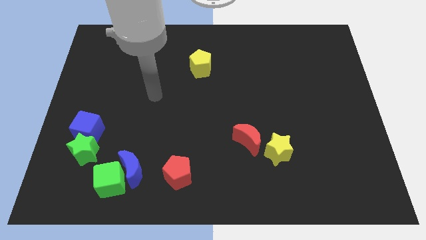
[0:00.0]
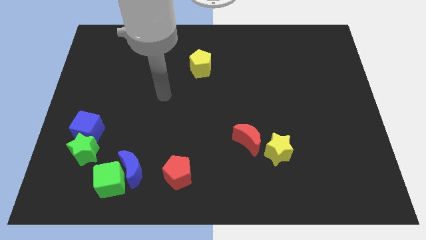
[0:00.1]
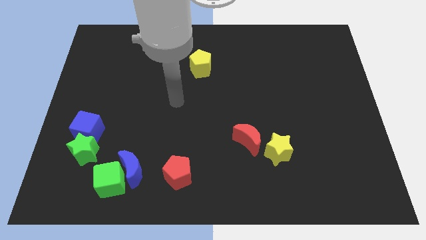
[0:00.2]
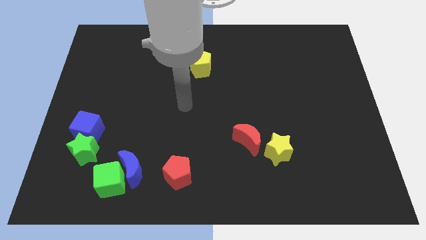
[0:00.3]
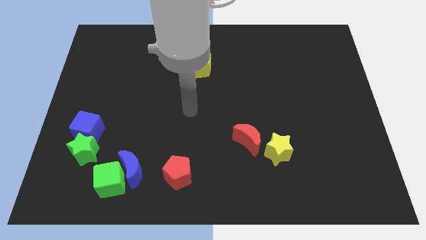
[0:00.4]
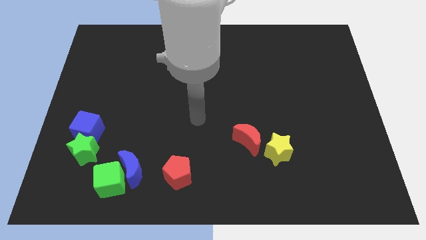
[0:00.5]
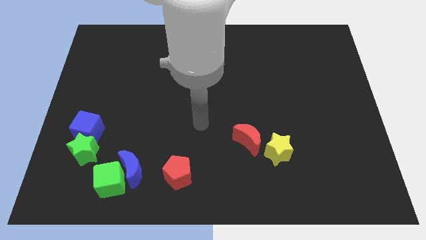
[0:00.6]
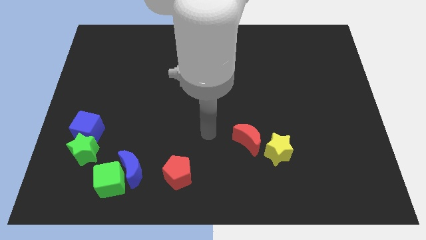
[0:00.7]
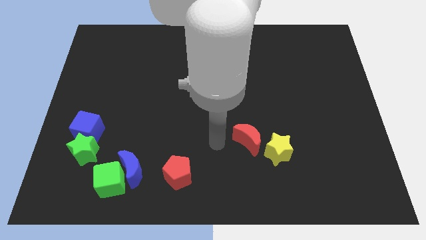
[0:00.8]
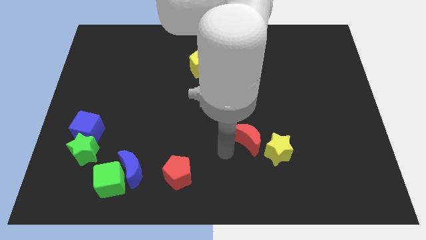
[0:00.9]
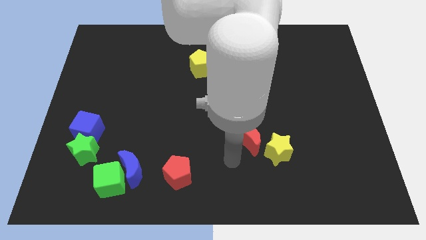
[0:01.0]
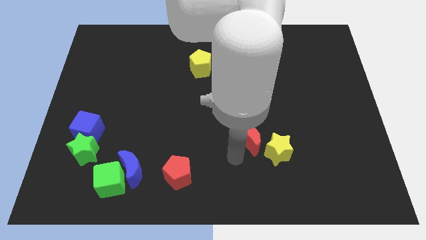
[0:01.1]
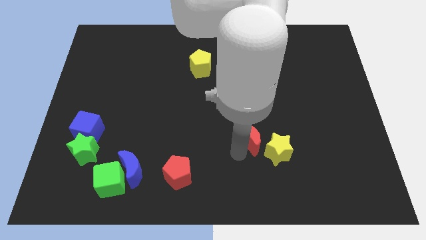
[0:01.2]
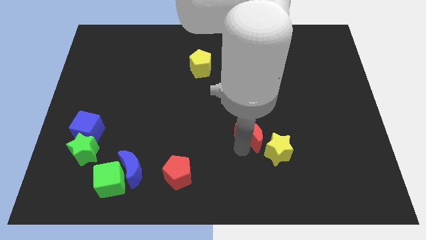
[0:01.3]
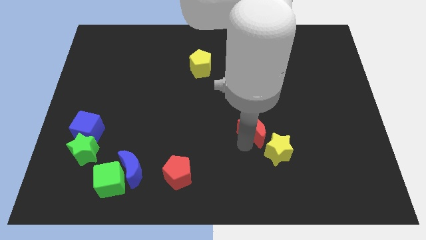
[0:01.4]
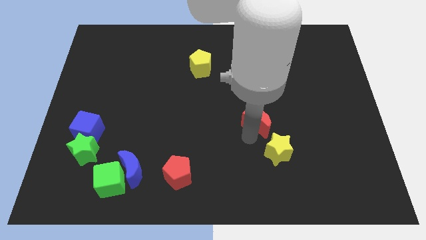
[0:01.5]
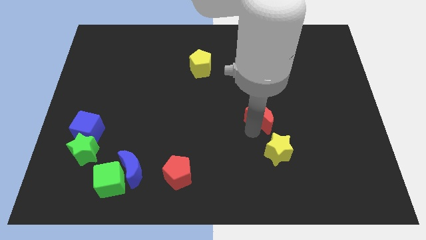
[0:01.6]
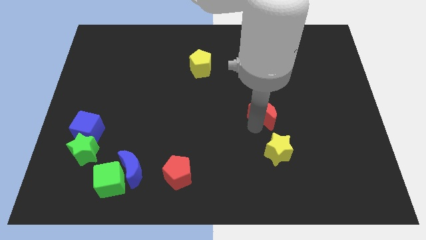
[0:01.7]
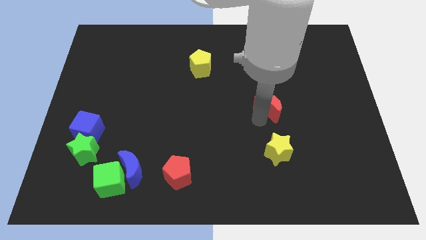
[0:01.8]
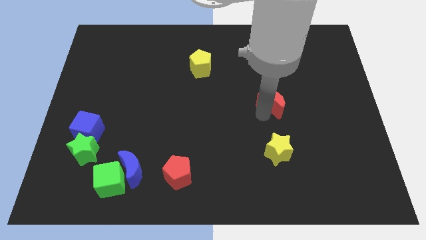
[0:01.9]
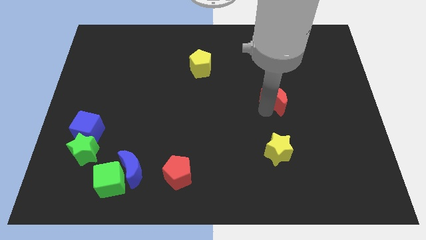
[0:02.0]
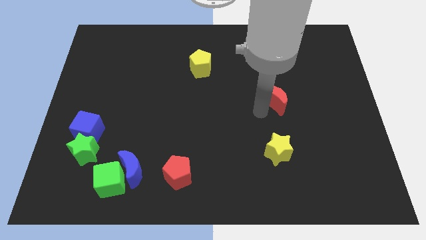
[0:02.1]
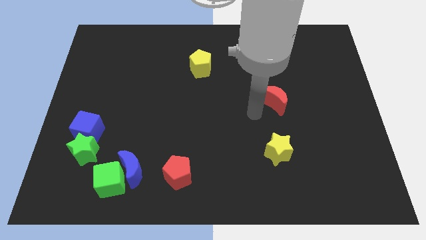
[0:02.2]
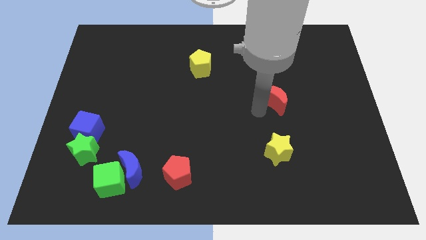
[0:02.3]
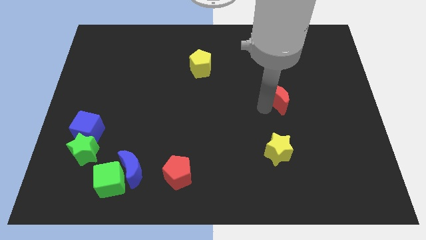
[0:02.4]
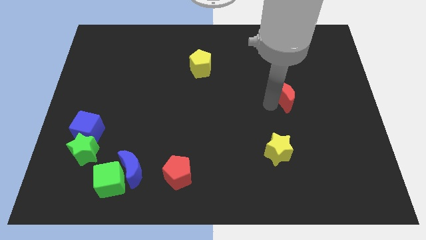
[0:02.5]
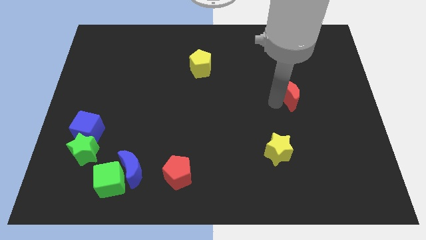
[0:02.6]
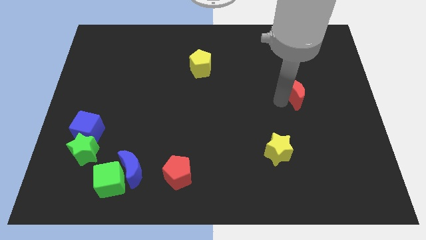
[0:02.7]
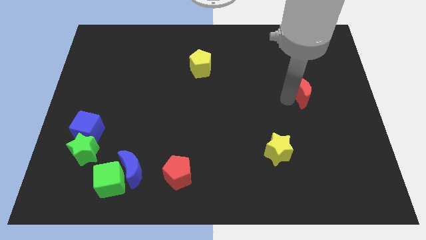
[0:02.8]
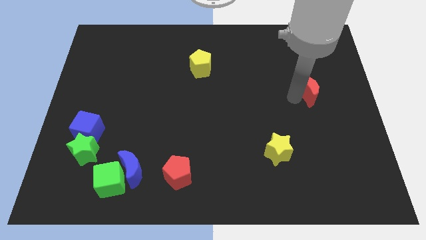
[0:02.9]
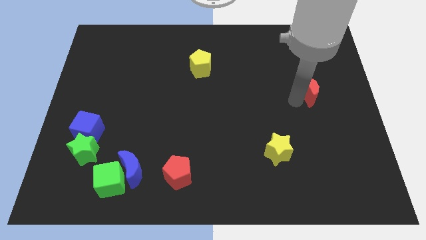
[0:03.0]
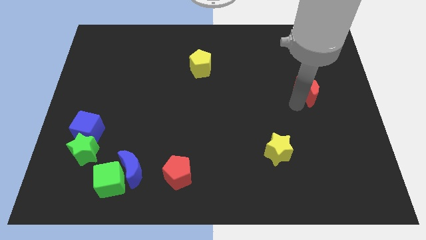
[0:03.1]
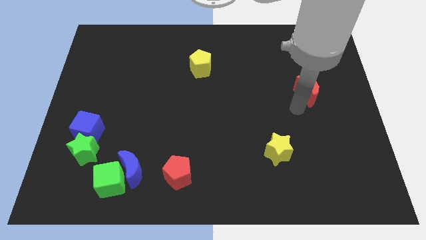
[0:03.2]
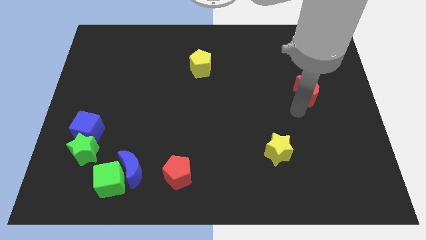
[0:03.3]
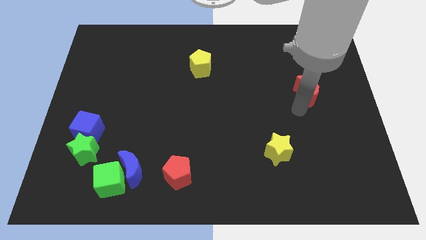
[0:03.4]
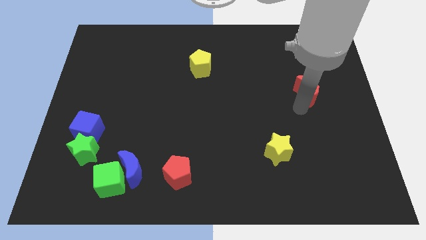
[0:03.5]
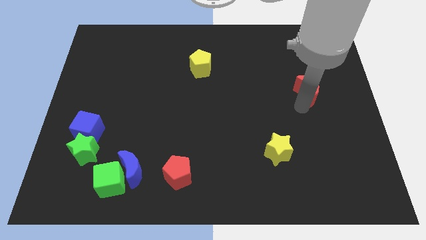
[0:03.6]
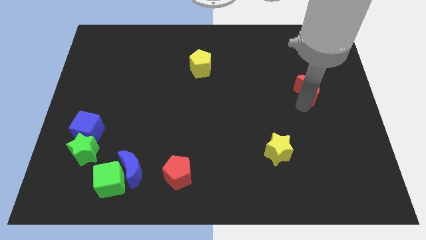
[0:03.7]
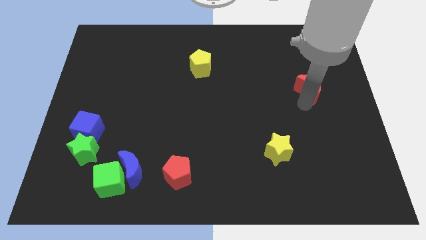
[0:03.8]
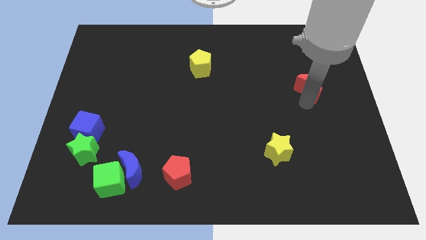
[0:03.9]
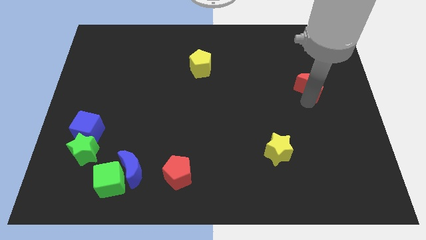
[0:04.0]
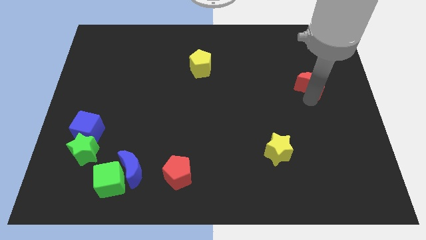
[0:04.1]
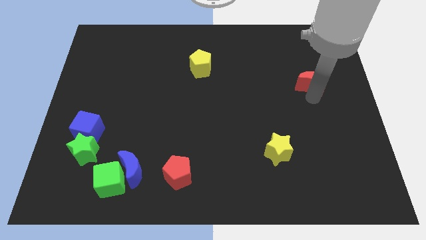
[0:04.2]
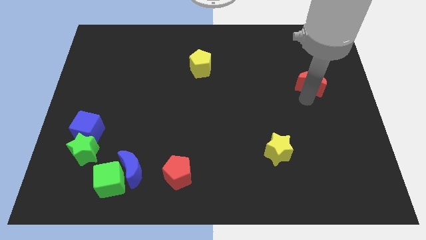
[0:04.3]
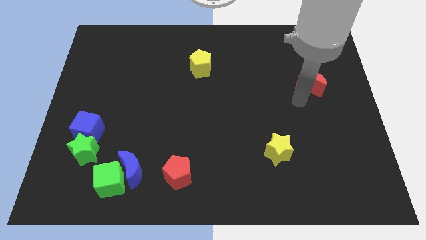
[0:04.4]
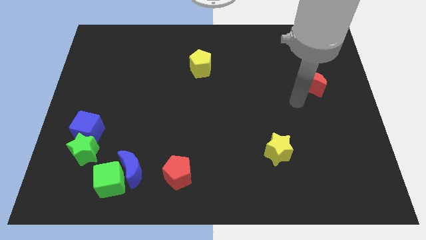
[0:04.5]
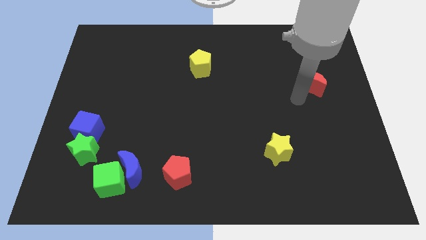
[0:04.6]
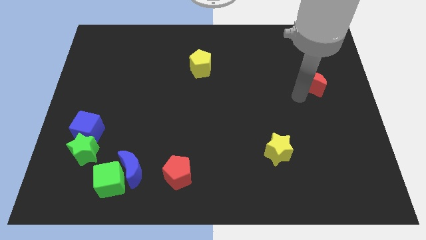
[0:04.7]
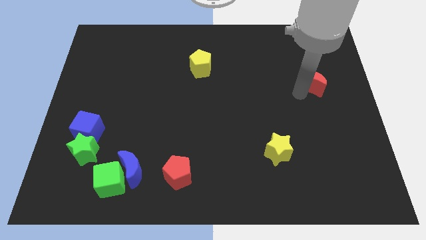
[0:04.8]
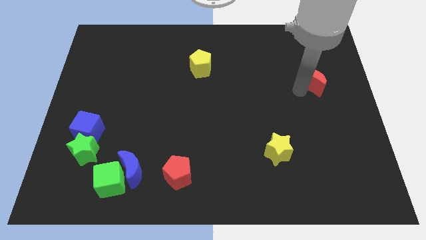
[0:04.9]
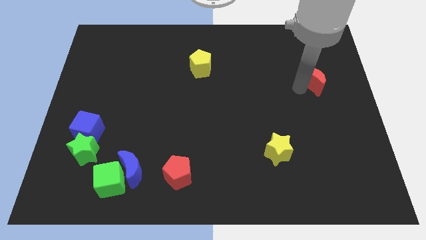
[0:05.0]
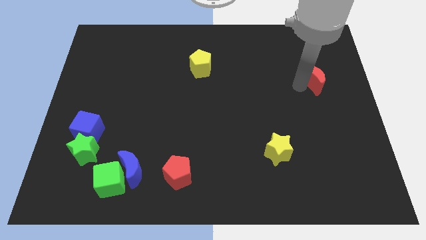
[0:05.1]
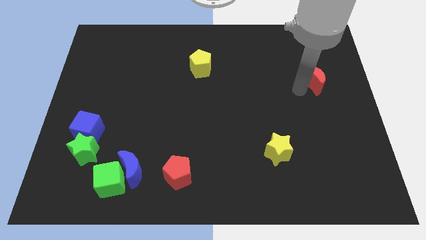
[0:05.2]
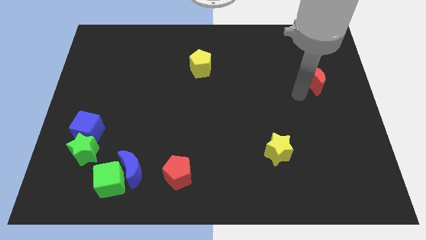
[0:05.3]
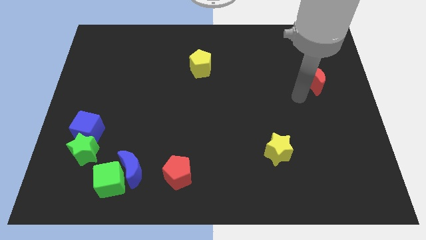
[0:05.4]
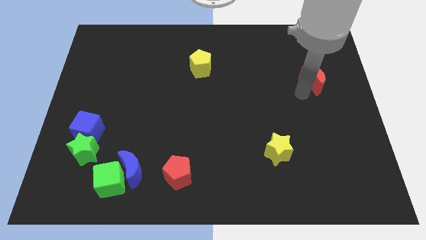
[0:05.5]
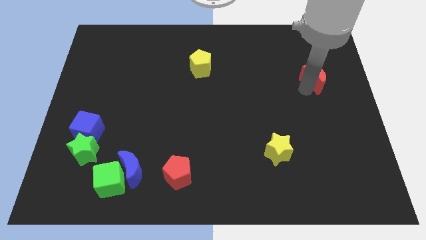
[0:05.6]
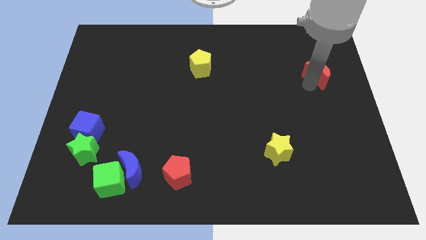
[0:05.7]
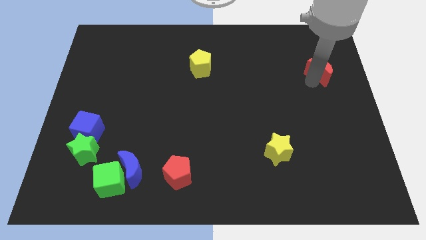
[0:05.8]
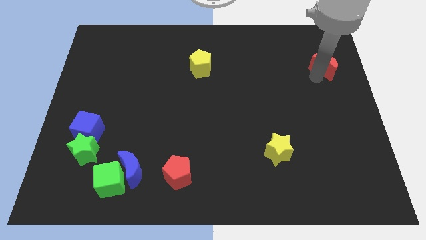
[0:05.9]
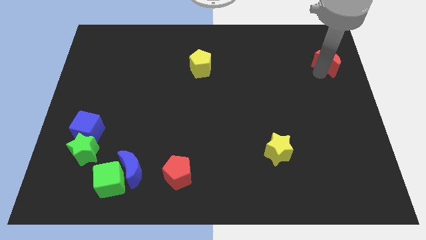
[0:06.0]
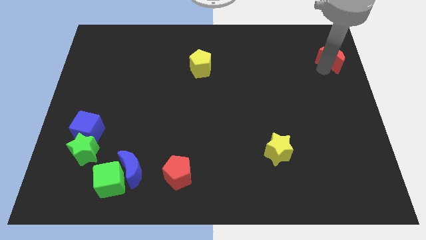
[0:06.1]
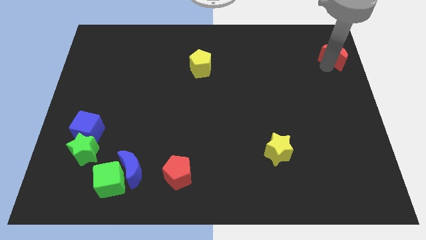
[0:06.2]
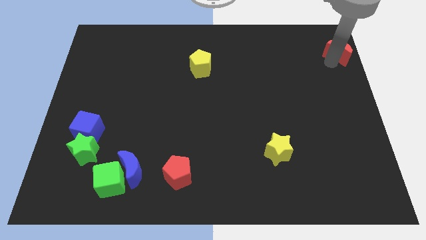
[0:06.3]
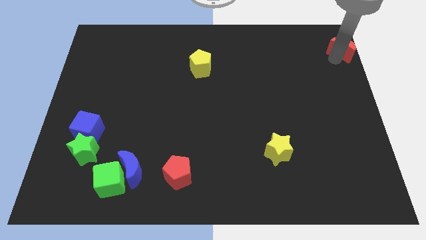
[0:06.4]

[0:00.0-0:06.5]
push the red moon to the top right of the board
